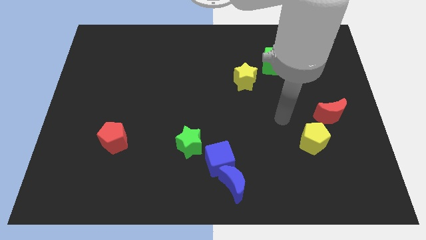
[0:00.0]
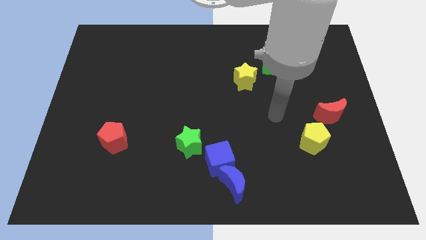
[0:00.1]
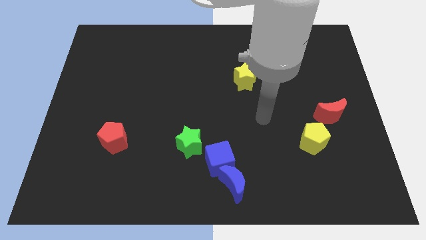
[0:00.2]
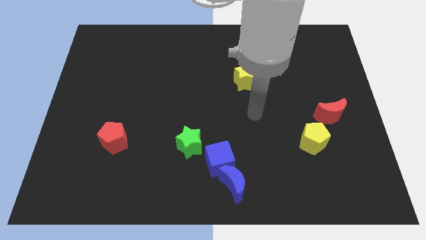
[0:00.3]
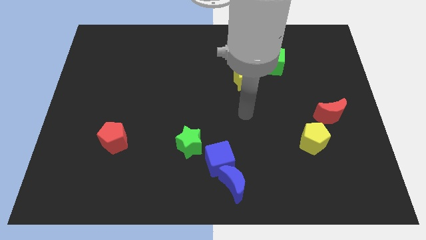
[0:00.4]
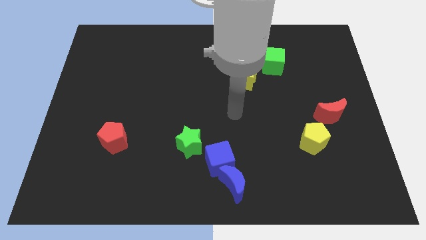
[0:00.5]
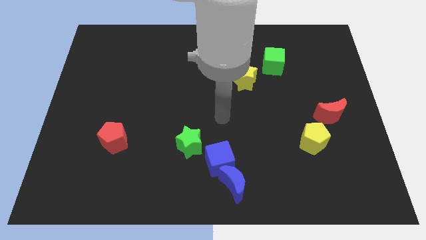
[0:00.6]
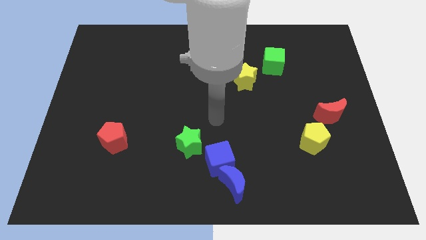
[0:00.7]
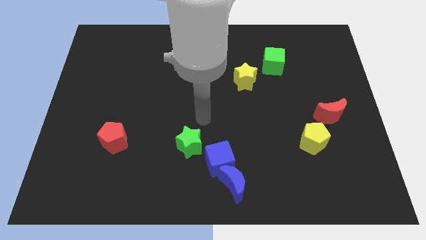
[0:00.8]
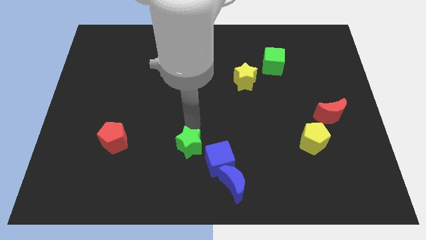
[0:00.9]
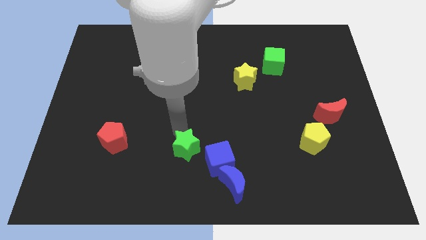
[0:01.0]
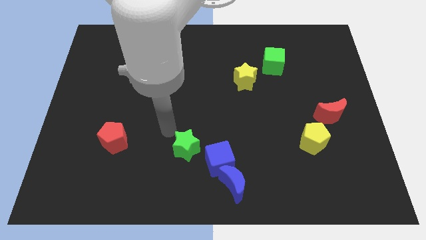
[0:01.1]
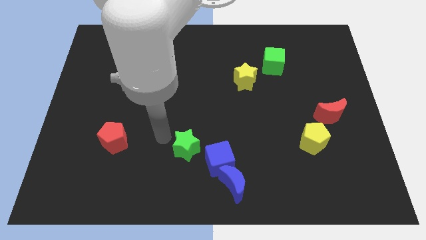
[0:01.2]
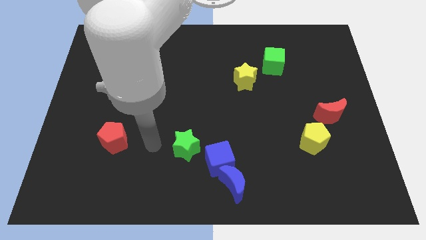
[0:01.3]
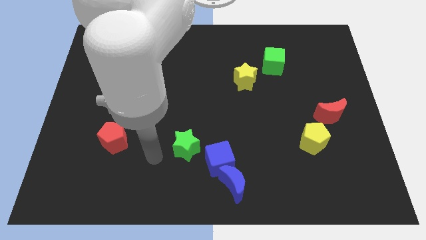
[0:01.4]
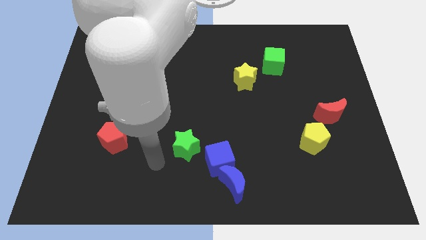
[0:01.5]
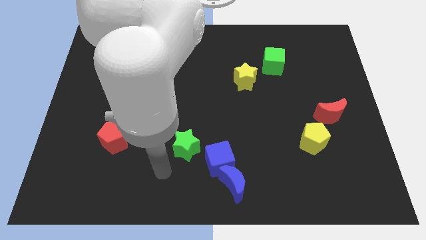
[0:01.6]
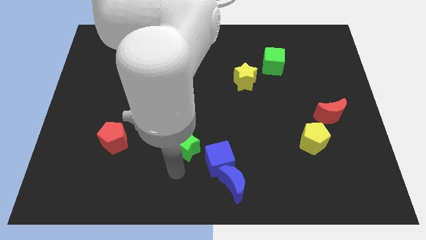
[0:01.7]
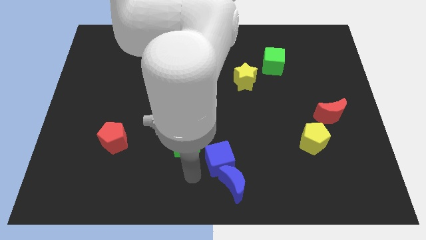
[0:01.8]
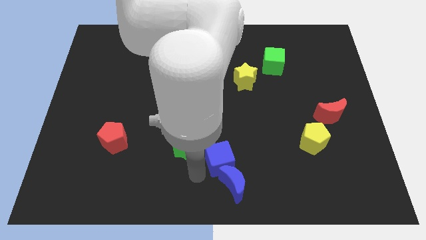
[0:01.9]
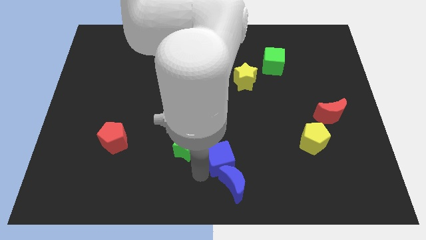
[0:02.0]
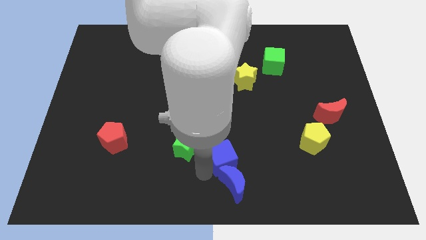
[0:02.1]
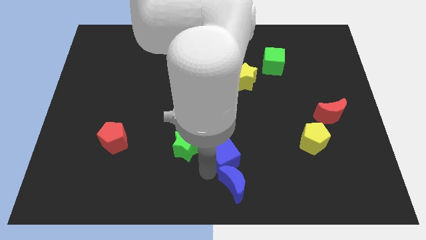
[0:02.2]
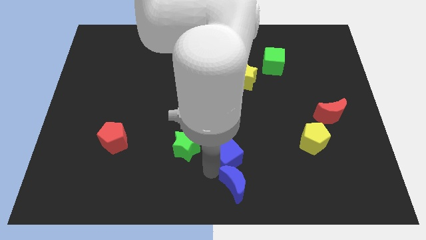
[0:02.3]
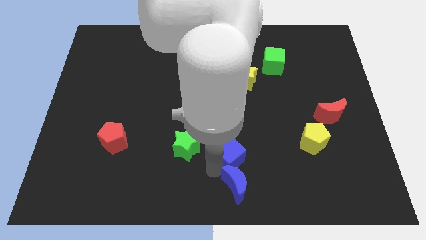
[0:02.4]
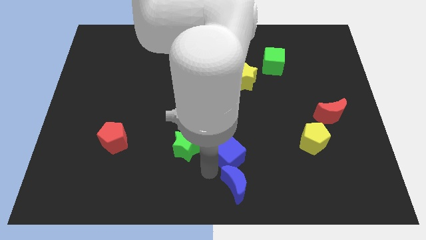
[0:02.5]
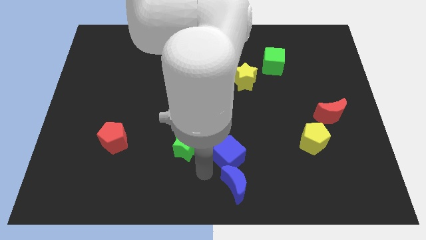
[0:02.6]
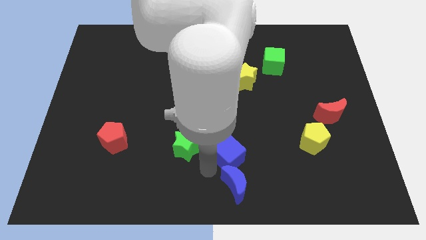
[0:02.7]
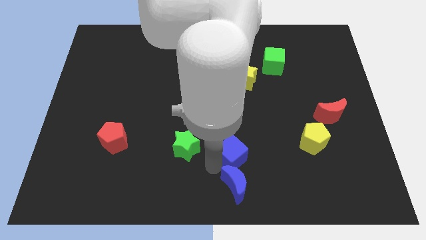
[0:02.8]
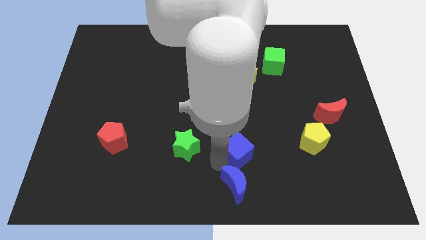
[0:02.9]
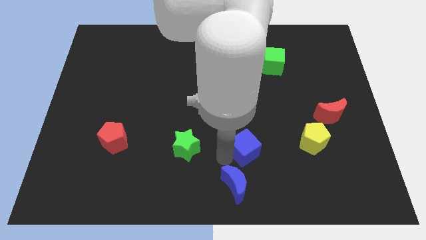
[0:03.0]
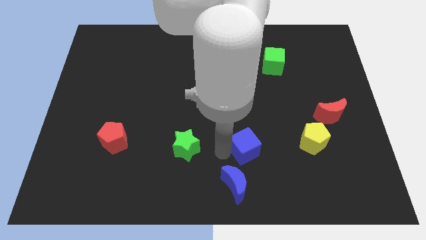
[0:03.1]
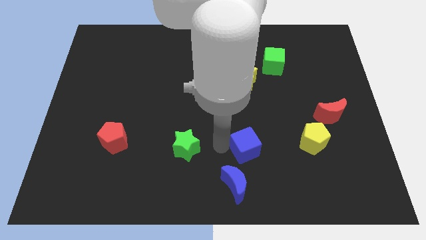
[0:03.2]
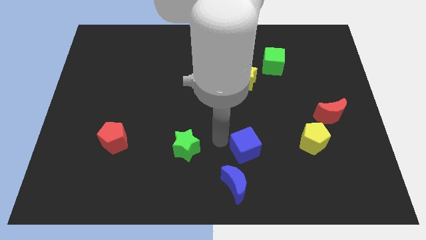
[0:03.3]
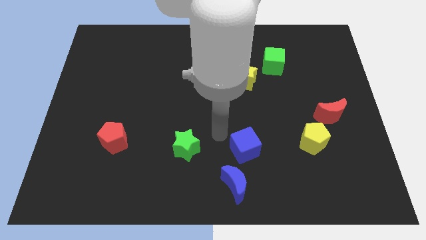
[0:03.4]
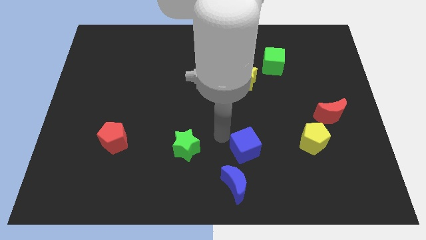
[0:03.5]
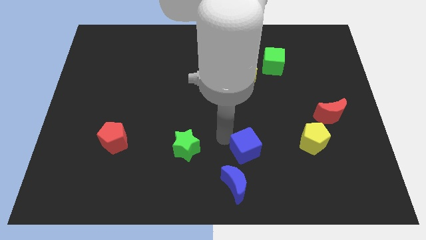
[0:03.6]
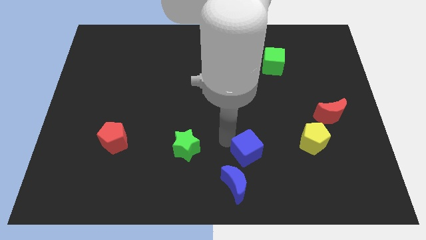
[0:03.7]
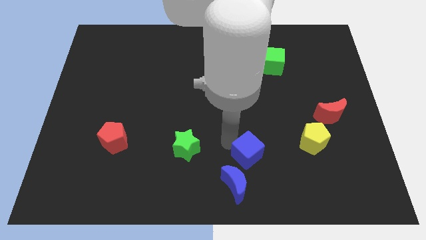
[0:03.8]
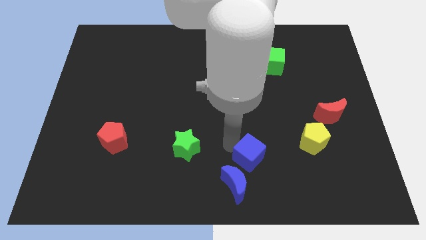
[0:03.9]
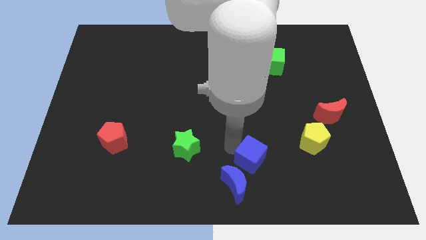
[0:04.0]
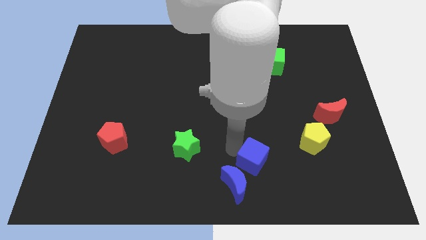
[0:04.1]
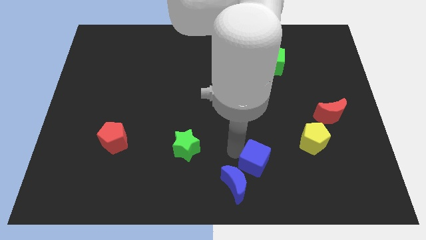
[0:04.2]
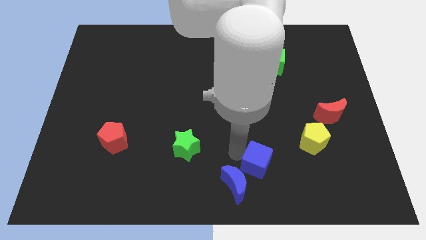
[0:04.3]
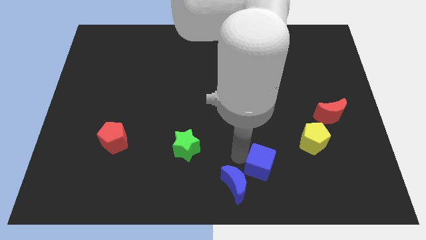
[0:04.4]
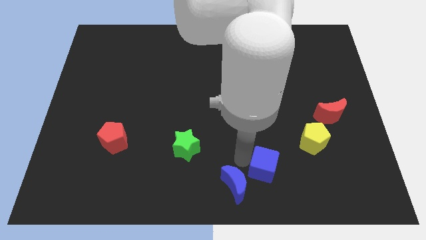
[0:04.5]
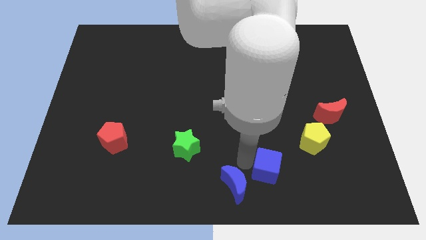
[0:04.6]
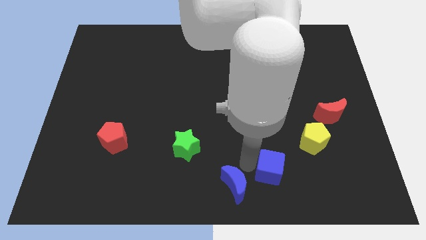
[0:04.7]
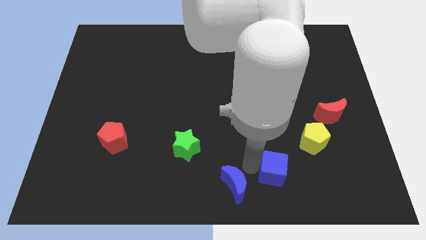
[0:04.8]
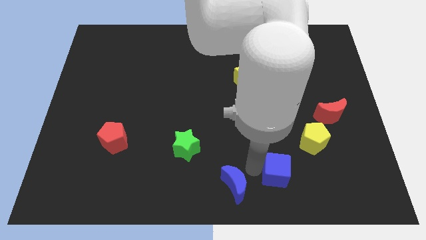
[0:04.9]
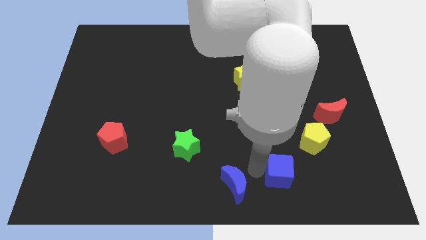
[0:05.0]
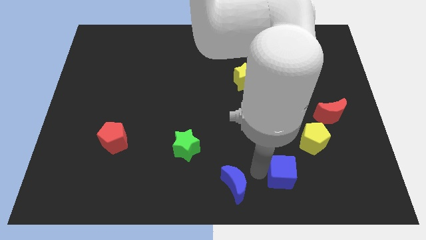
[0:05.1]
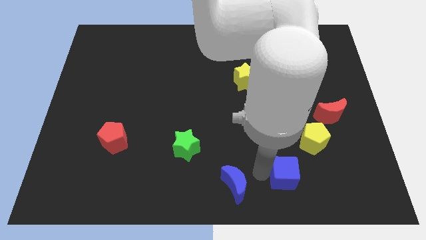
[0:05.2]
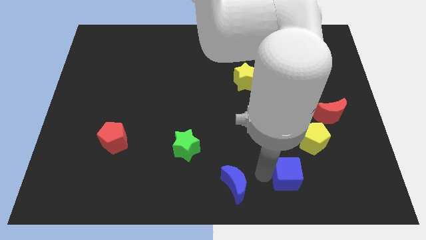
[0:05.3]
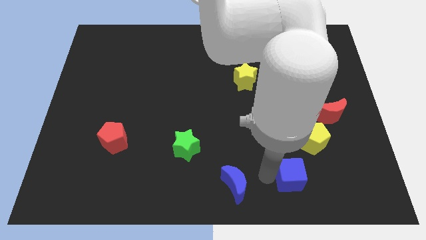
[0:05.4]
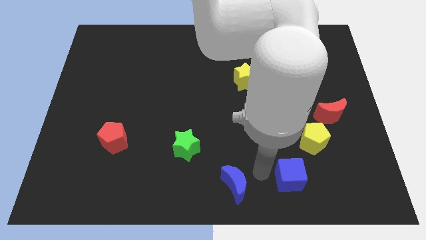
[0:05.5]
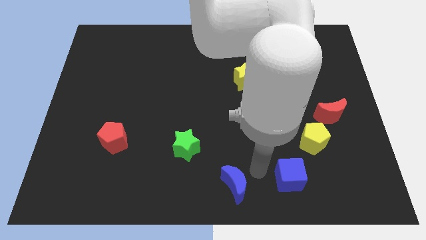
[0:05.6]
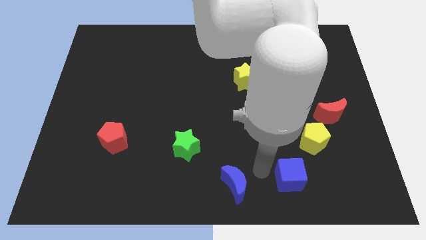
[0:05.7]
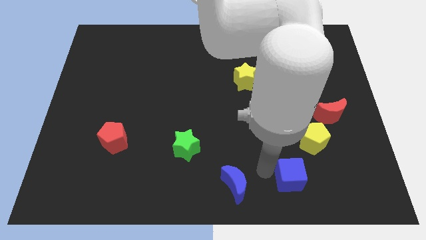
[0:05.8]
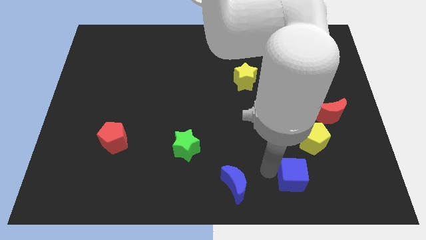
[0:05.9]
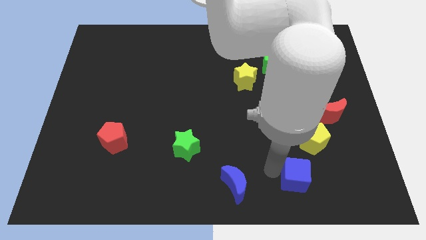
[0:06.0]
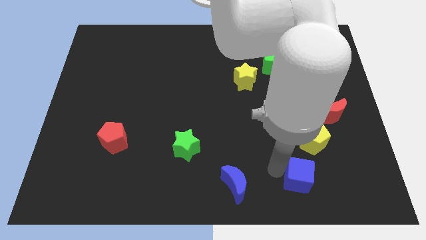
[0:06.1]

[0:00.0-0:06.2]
slide the blue cube to the bottom of the yellow pentagon

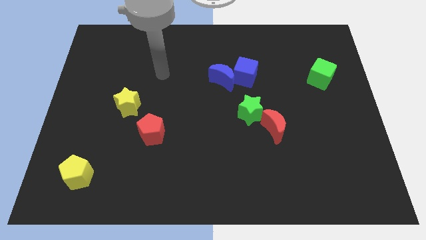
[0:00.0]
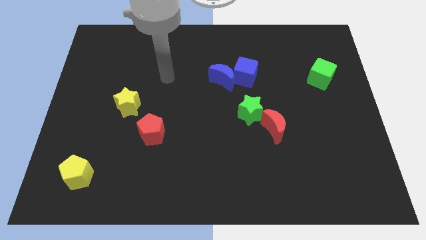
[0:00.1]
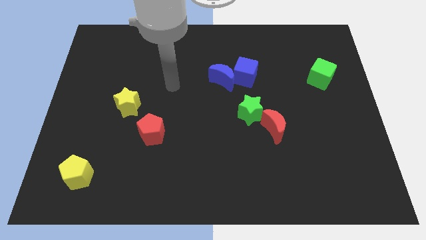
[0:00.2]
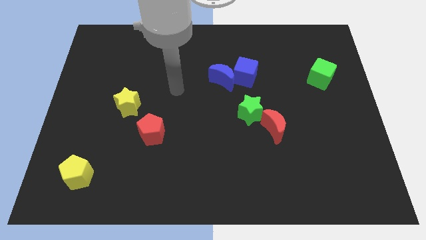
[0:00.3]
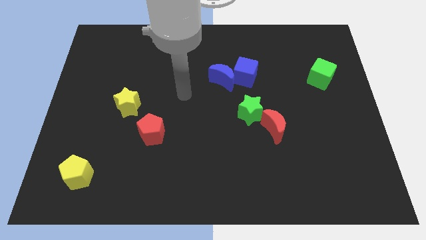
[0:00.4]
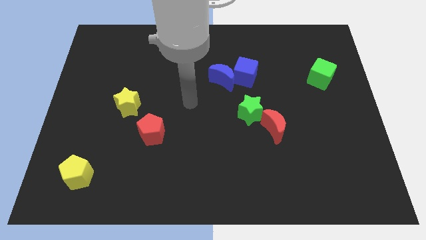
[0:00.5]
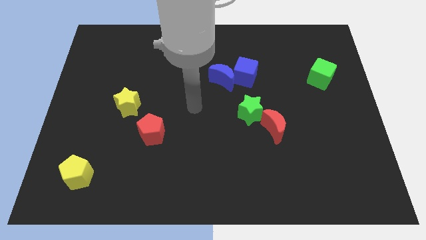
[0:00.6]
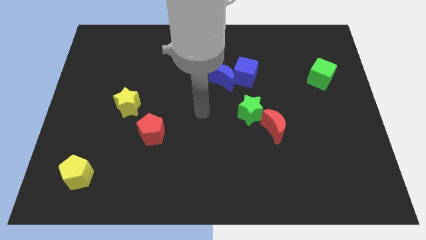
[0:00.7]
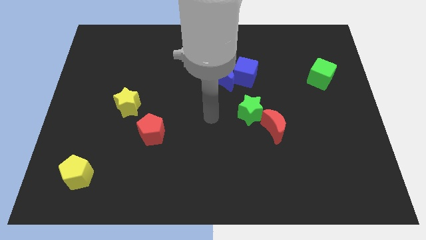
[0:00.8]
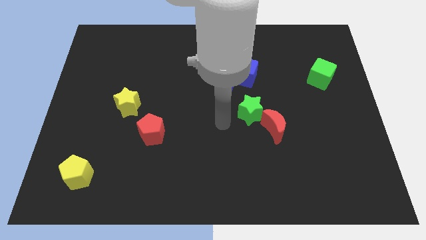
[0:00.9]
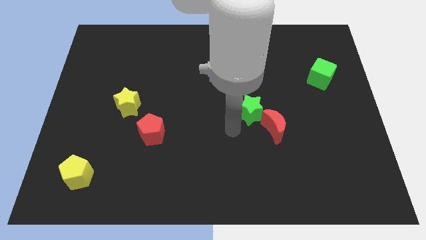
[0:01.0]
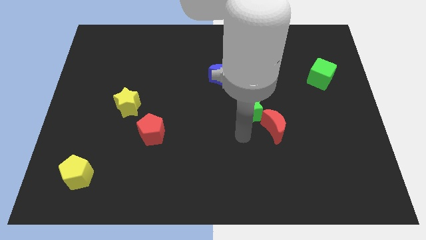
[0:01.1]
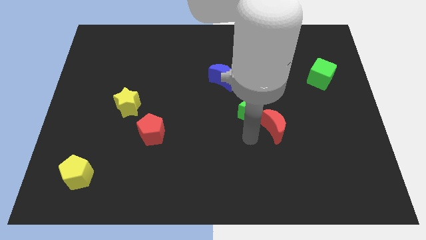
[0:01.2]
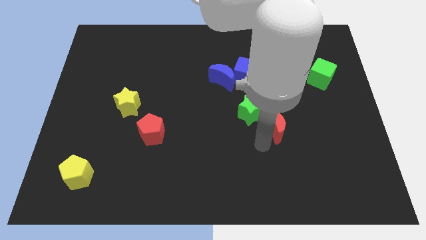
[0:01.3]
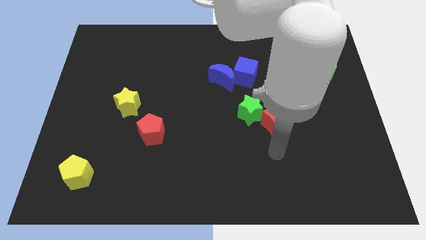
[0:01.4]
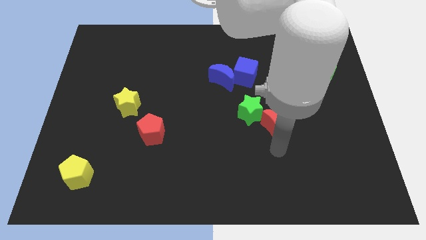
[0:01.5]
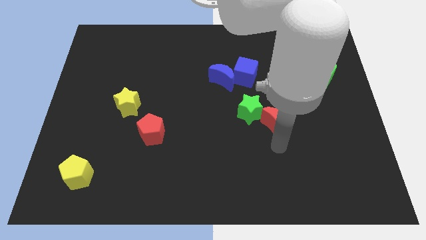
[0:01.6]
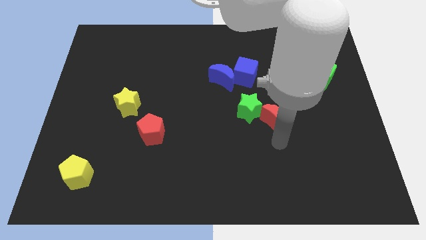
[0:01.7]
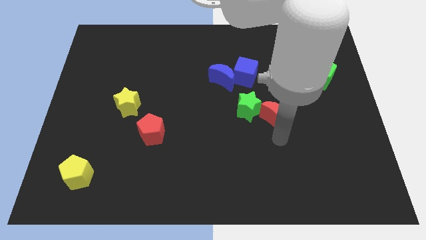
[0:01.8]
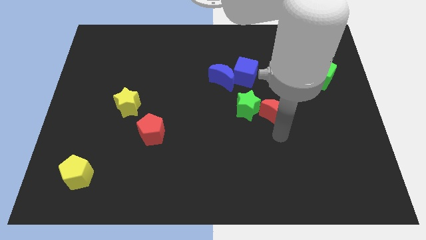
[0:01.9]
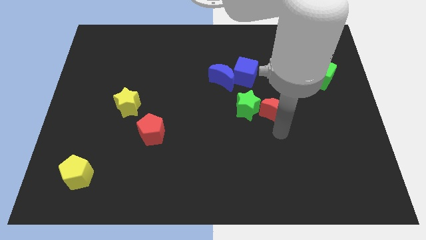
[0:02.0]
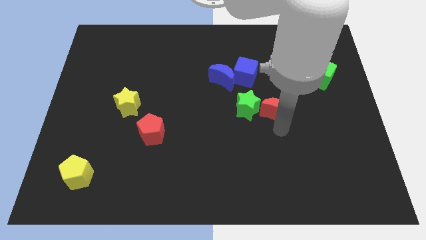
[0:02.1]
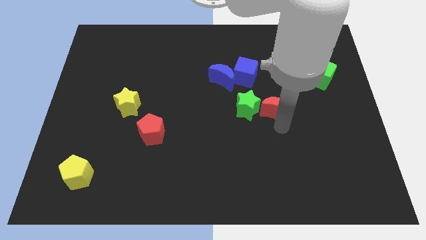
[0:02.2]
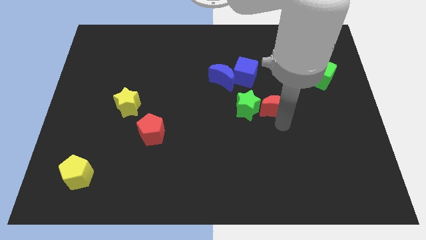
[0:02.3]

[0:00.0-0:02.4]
put the red moon diagonally up and to the right of the green star
